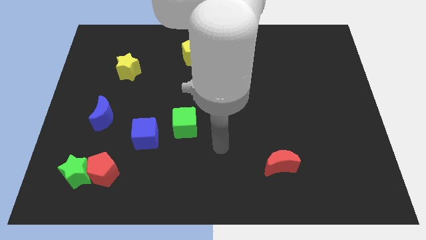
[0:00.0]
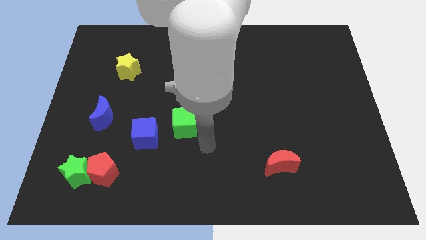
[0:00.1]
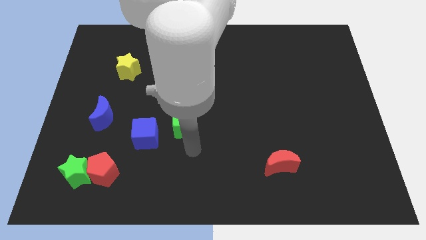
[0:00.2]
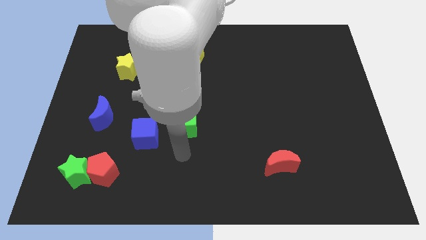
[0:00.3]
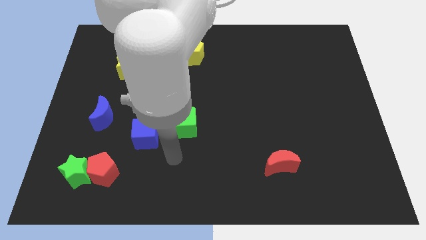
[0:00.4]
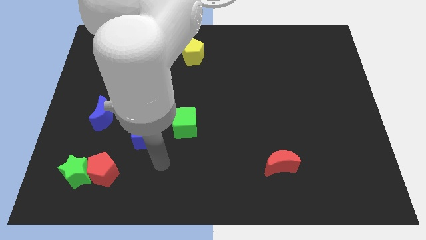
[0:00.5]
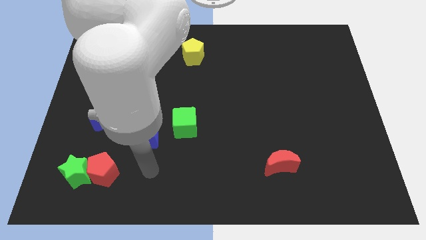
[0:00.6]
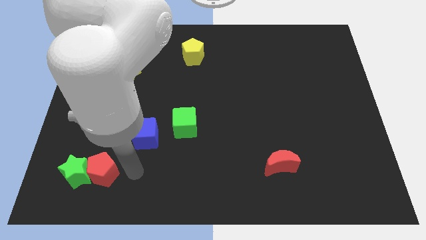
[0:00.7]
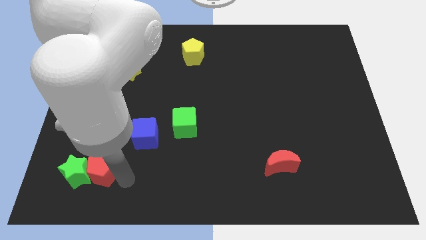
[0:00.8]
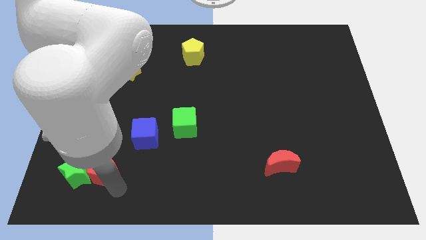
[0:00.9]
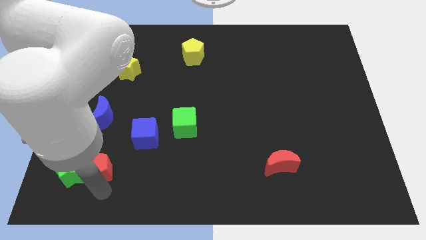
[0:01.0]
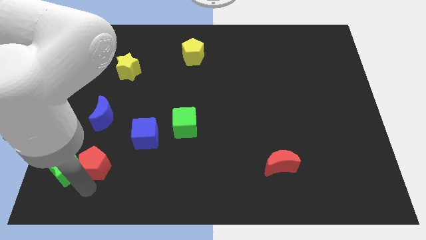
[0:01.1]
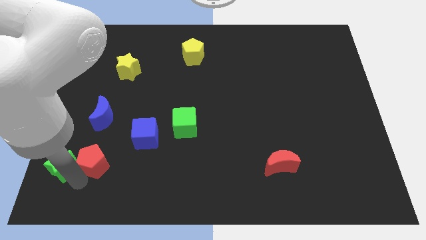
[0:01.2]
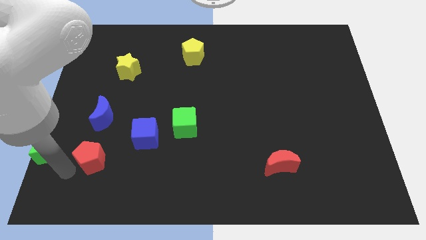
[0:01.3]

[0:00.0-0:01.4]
pull the red pentagon apart from the green star

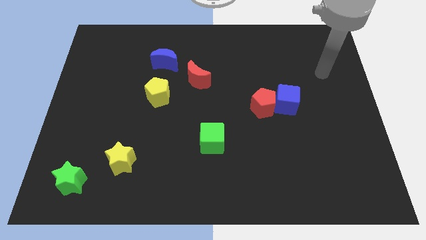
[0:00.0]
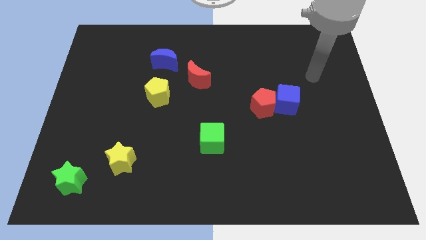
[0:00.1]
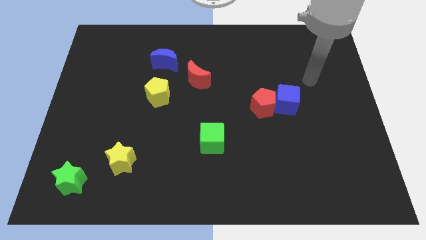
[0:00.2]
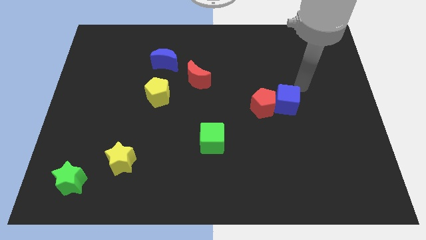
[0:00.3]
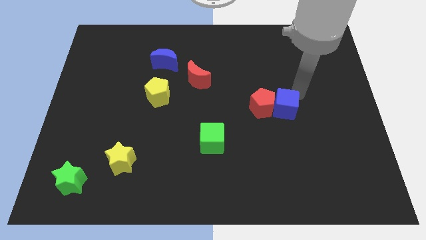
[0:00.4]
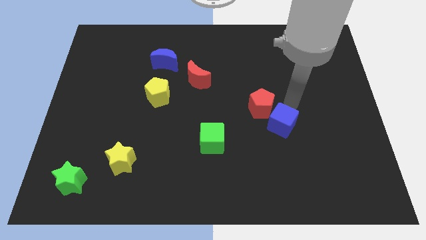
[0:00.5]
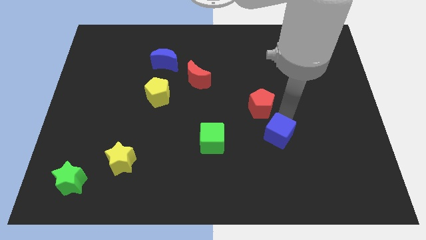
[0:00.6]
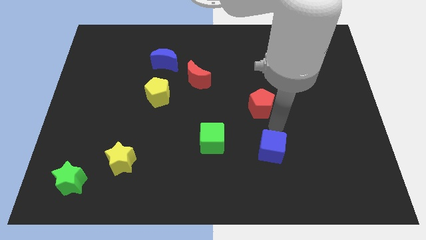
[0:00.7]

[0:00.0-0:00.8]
move the red pentagon away from the blue cube

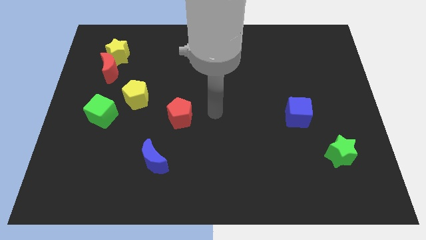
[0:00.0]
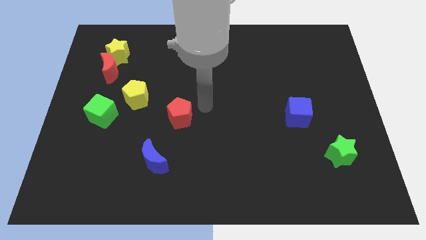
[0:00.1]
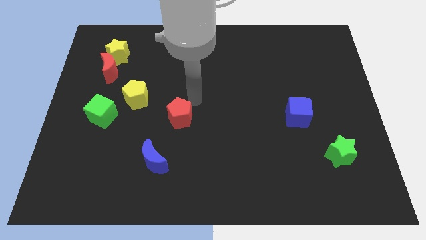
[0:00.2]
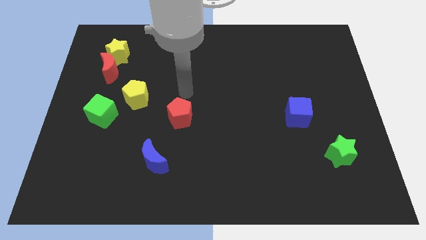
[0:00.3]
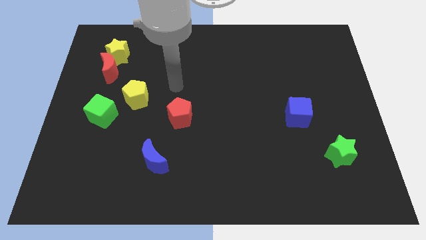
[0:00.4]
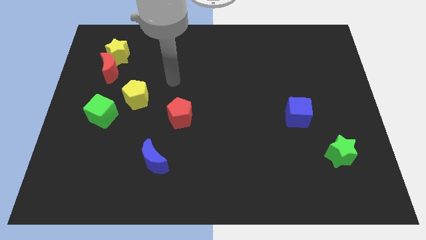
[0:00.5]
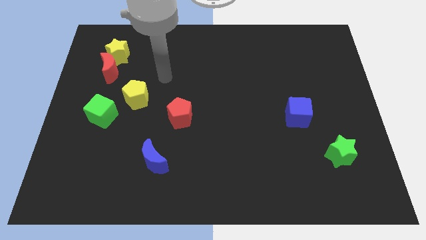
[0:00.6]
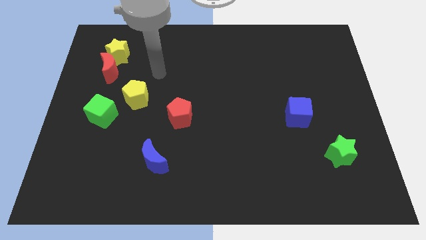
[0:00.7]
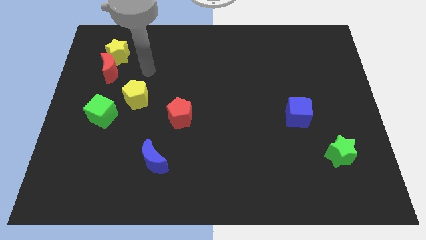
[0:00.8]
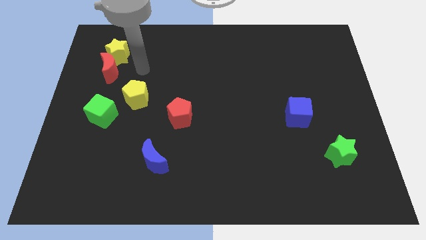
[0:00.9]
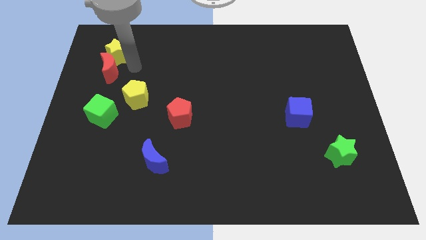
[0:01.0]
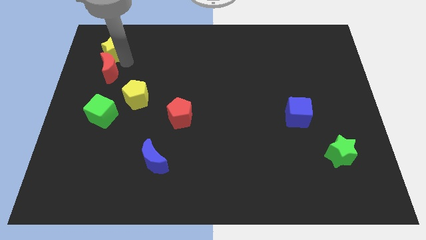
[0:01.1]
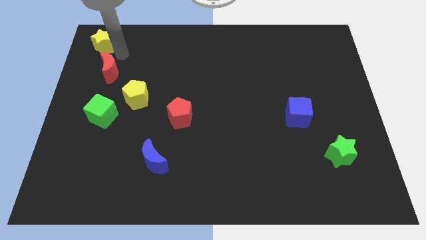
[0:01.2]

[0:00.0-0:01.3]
separate the red moon from the yellow star

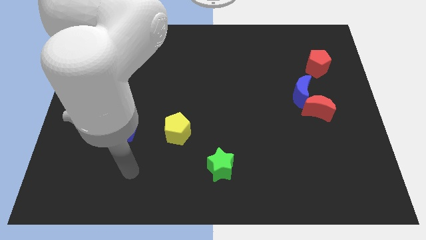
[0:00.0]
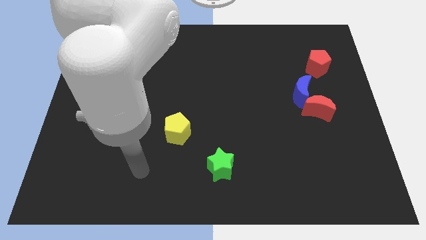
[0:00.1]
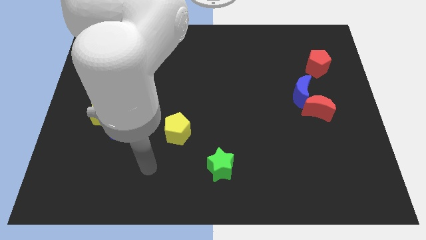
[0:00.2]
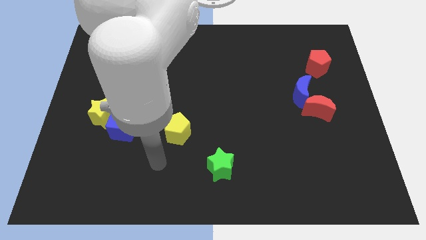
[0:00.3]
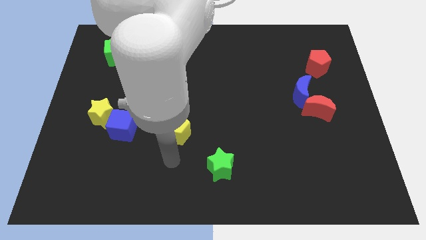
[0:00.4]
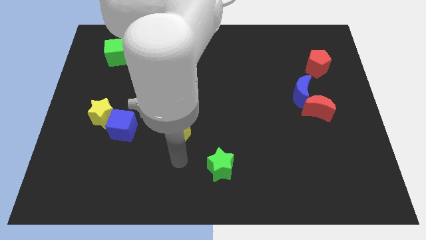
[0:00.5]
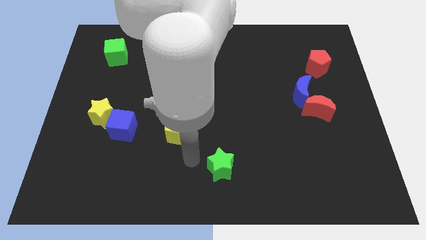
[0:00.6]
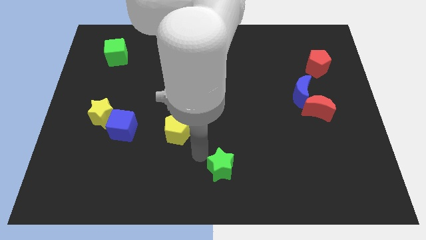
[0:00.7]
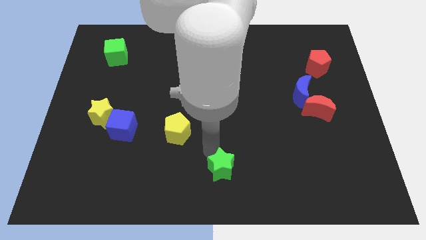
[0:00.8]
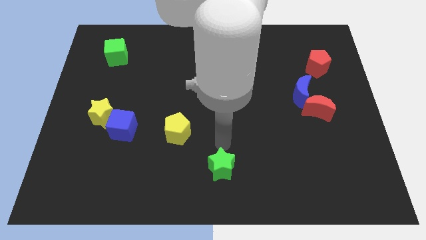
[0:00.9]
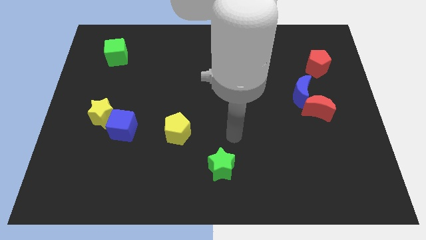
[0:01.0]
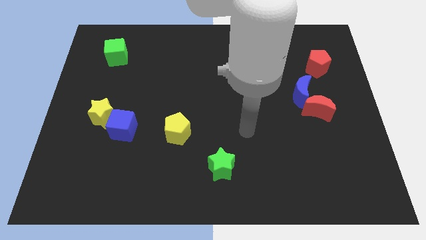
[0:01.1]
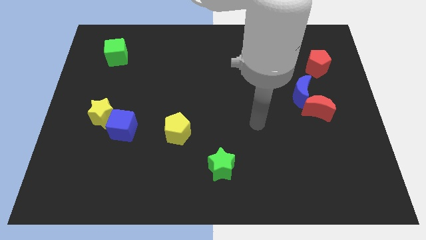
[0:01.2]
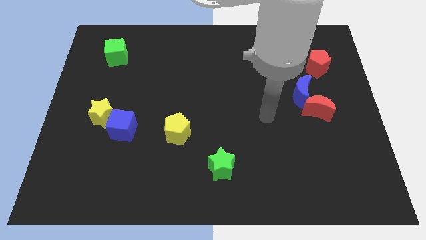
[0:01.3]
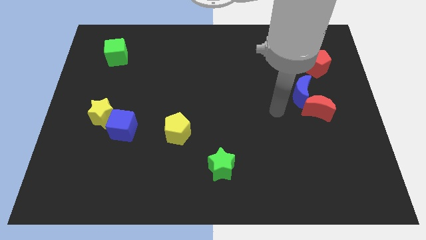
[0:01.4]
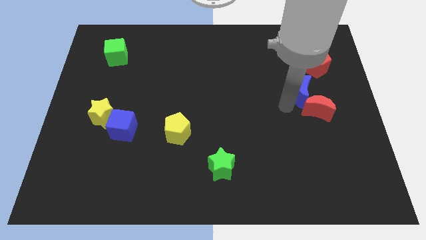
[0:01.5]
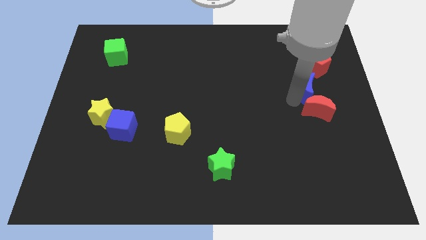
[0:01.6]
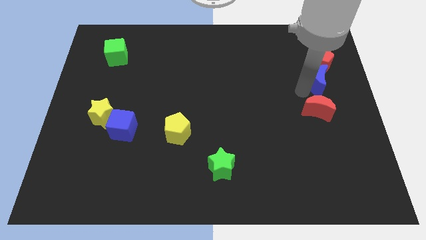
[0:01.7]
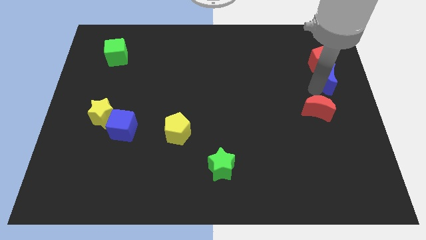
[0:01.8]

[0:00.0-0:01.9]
separate the red moon from the blue moon

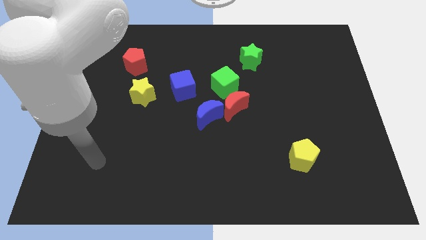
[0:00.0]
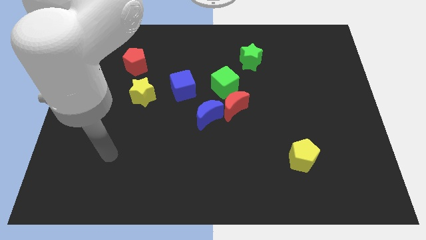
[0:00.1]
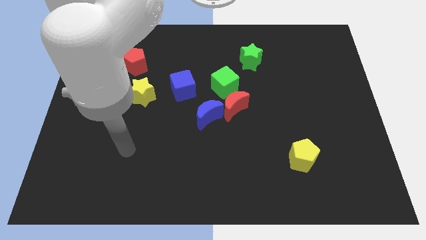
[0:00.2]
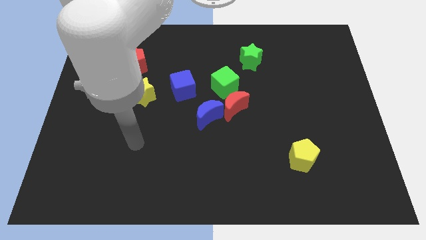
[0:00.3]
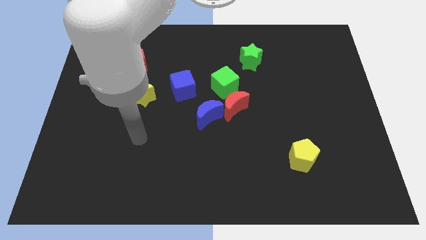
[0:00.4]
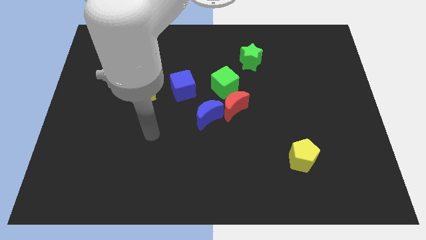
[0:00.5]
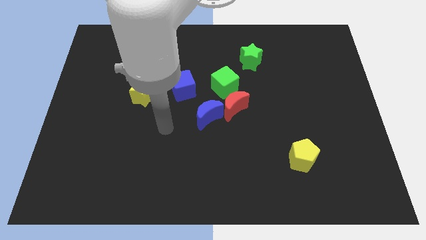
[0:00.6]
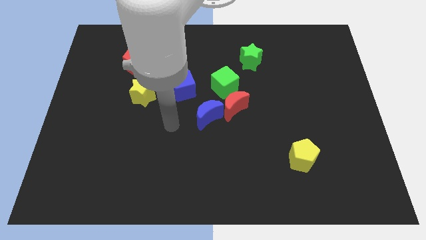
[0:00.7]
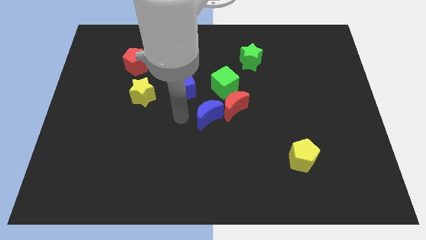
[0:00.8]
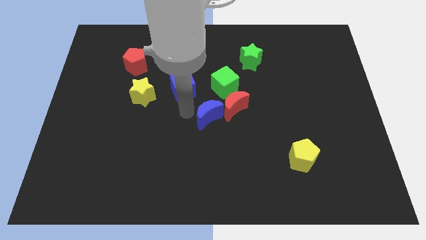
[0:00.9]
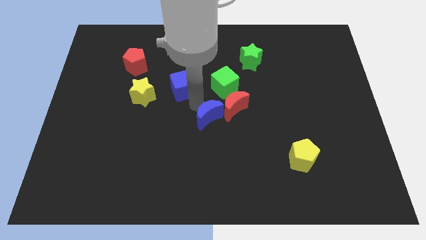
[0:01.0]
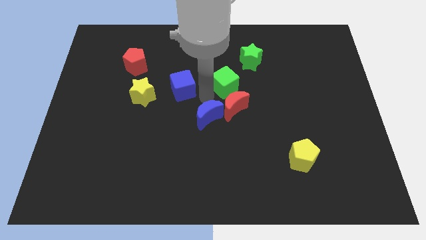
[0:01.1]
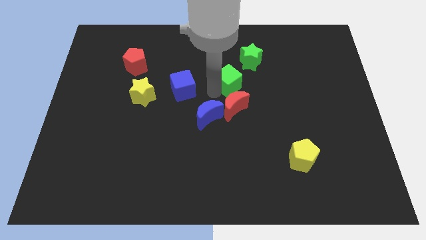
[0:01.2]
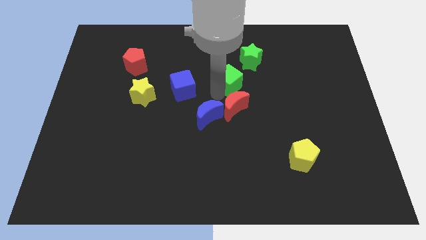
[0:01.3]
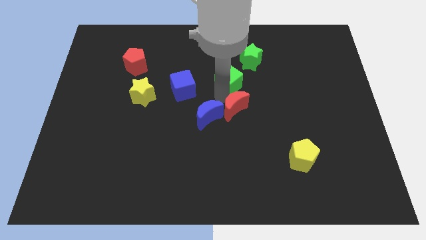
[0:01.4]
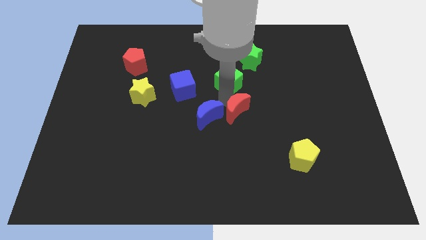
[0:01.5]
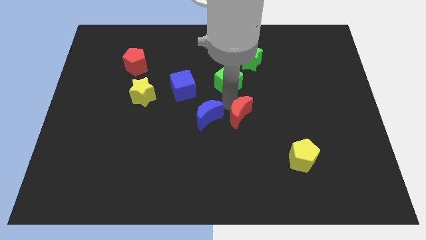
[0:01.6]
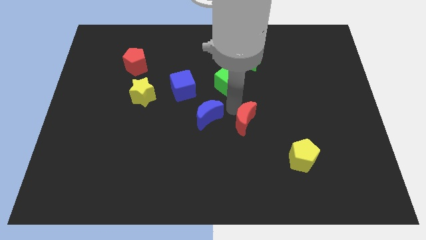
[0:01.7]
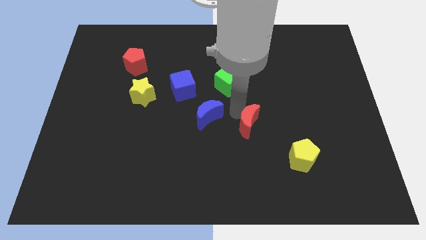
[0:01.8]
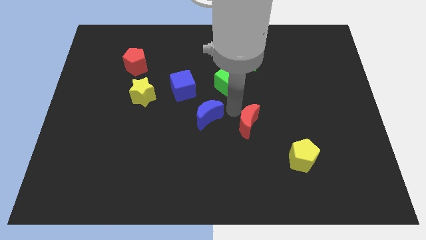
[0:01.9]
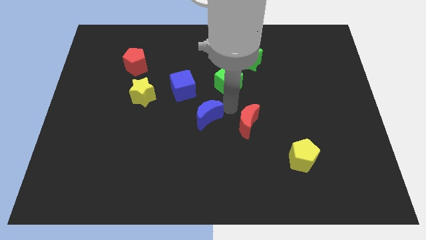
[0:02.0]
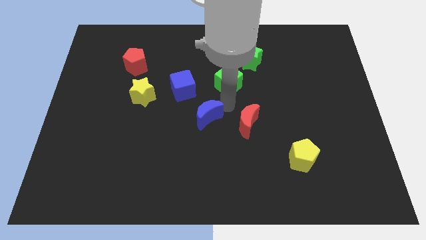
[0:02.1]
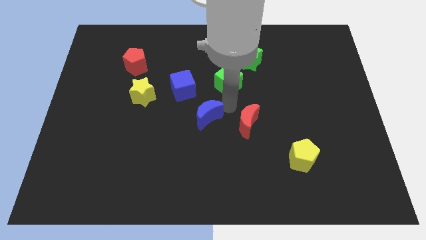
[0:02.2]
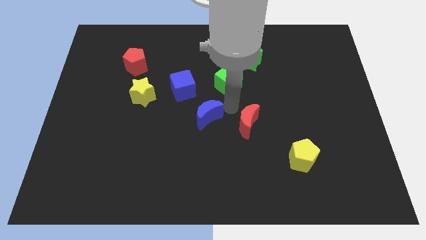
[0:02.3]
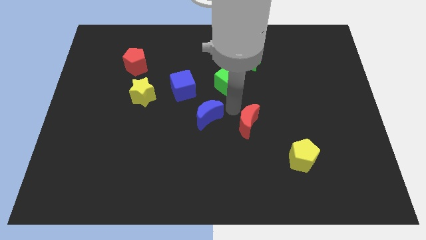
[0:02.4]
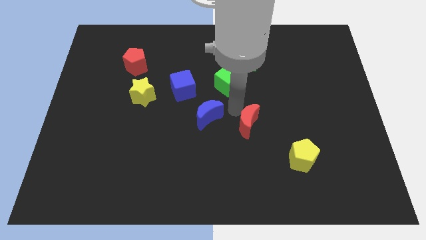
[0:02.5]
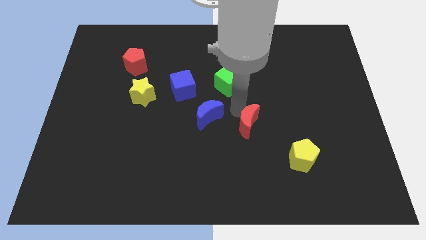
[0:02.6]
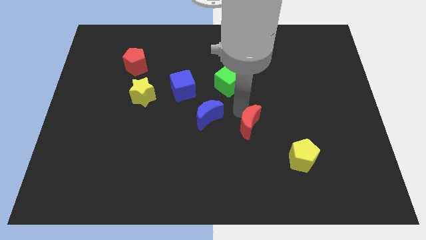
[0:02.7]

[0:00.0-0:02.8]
separate the red moon from the blue moon and green cube

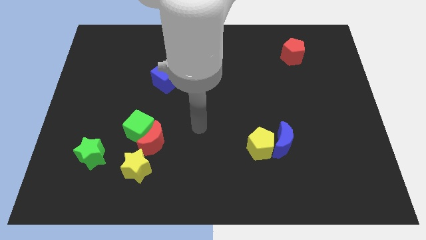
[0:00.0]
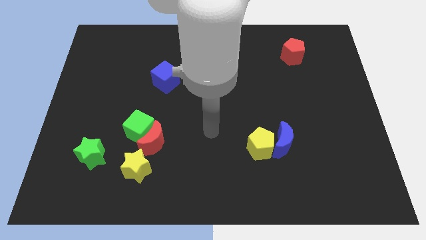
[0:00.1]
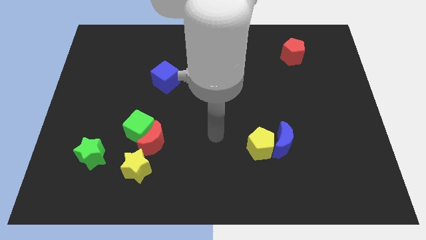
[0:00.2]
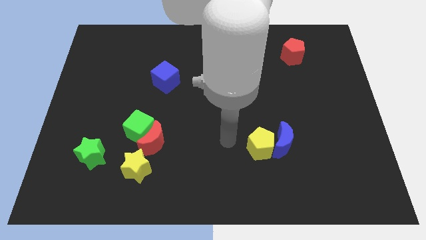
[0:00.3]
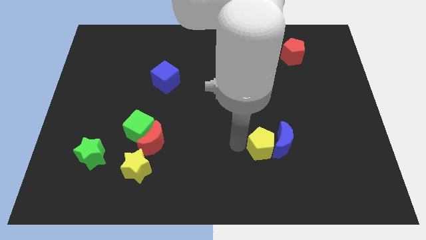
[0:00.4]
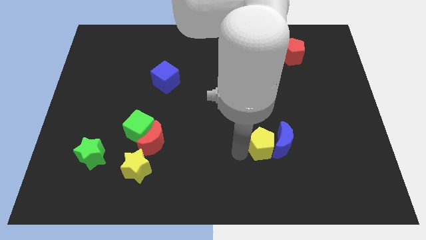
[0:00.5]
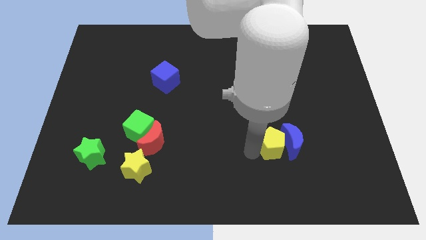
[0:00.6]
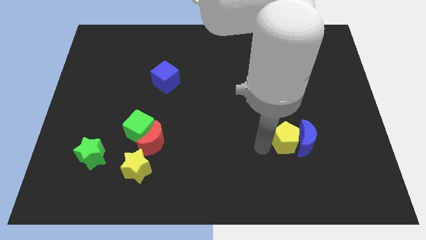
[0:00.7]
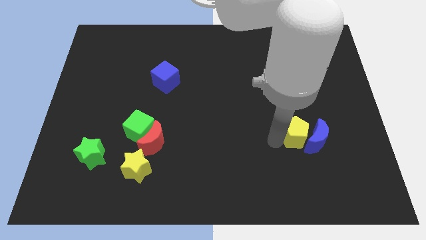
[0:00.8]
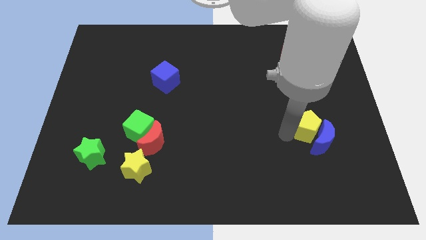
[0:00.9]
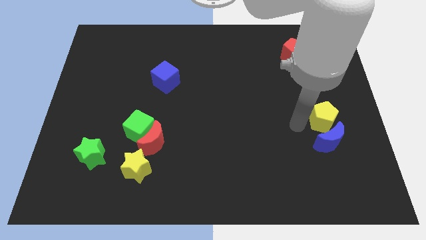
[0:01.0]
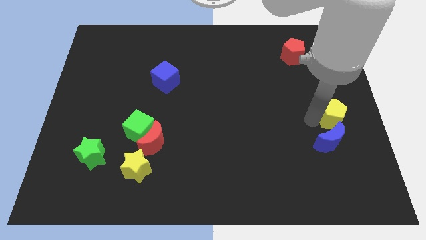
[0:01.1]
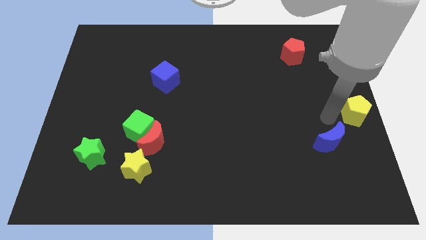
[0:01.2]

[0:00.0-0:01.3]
separate the blue moon from the yellow pentagon
